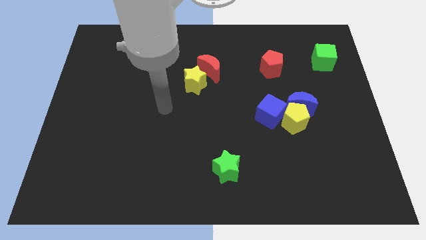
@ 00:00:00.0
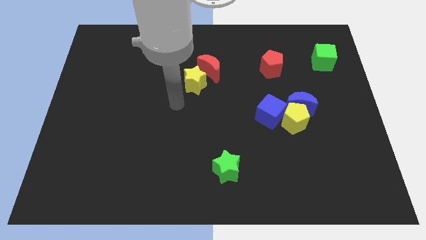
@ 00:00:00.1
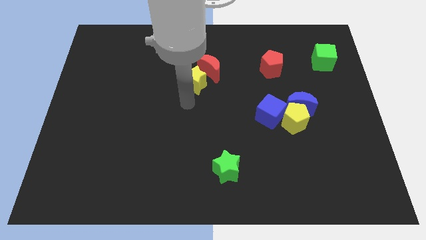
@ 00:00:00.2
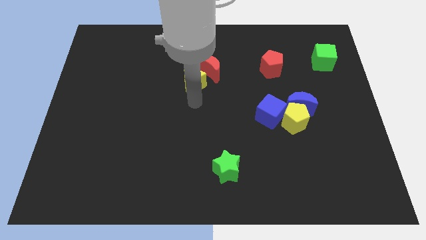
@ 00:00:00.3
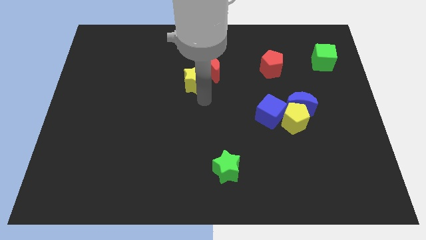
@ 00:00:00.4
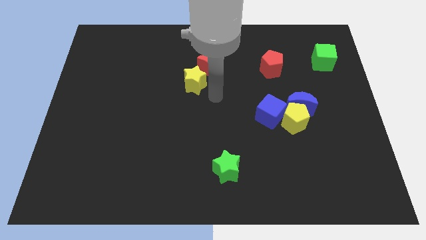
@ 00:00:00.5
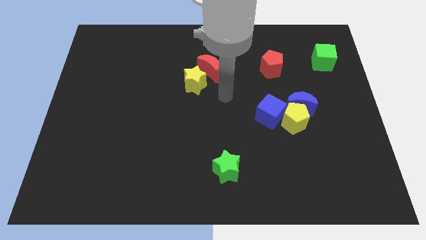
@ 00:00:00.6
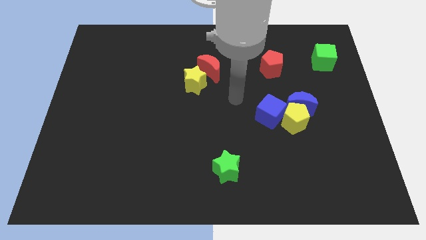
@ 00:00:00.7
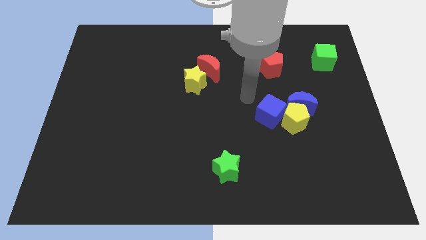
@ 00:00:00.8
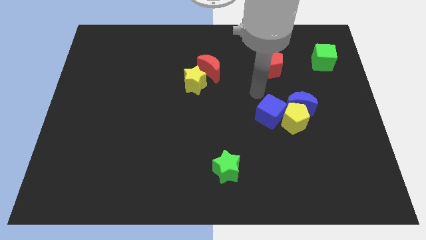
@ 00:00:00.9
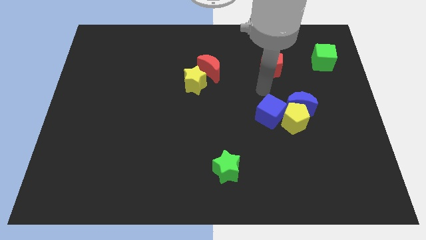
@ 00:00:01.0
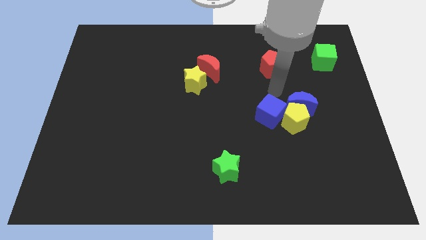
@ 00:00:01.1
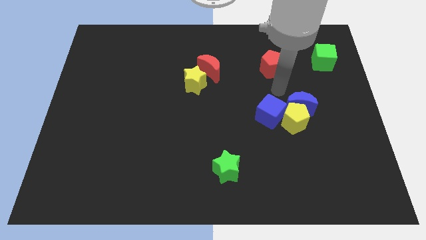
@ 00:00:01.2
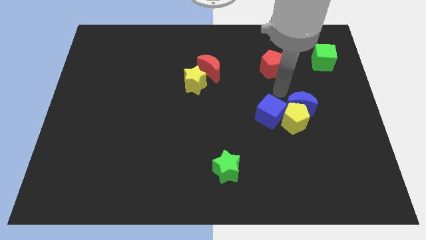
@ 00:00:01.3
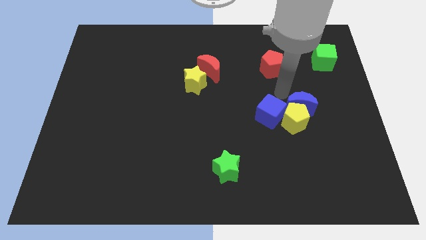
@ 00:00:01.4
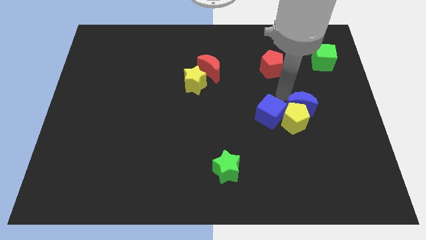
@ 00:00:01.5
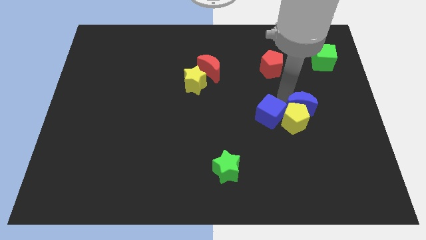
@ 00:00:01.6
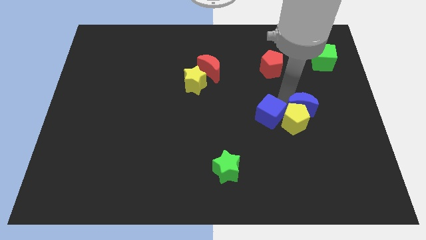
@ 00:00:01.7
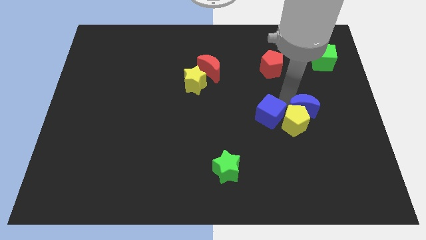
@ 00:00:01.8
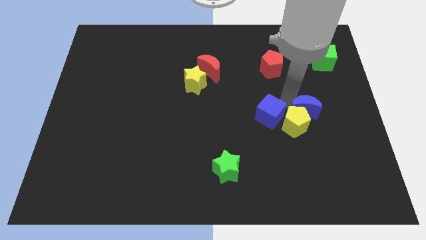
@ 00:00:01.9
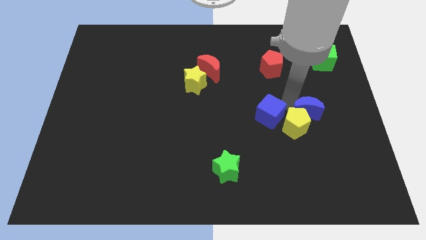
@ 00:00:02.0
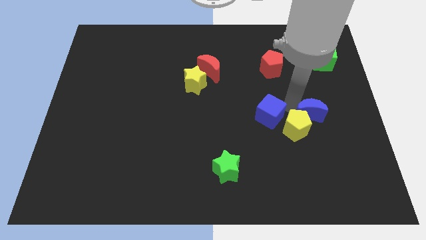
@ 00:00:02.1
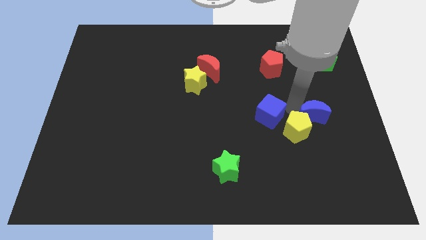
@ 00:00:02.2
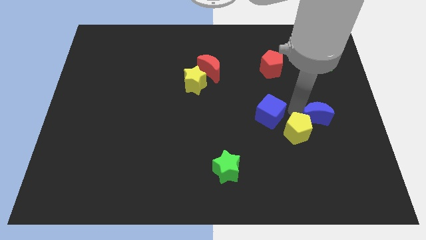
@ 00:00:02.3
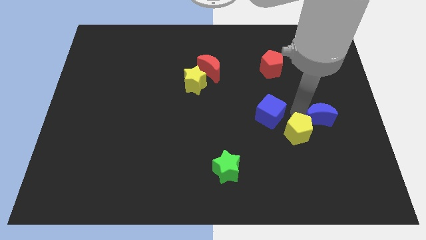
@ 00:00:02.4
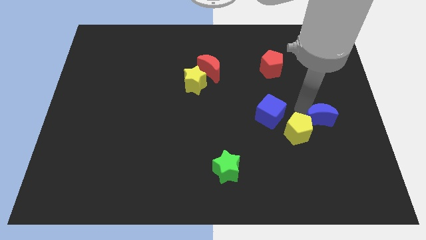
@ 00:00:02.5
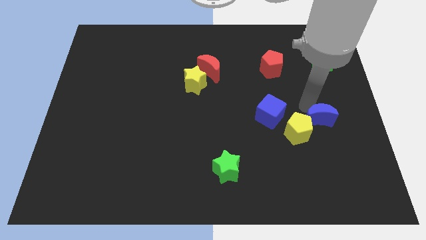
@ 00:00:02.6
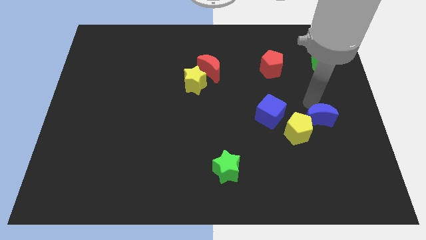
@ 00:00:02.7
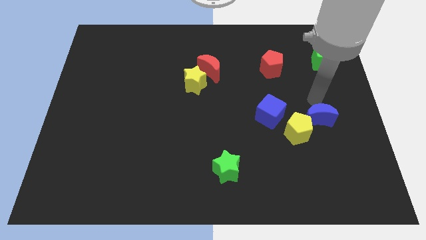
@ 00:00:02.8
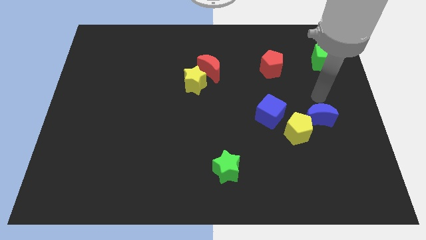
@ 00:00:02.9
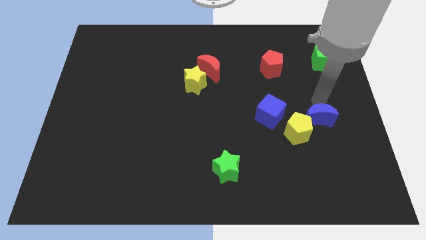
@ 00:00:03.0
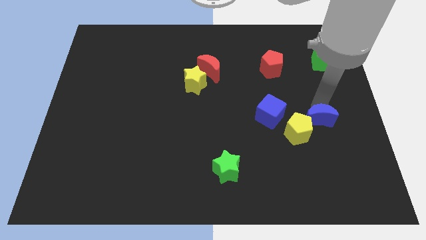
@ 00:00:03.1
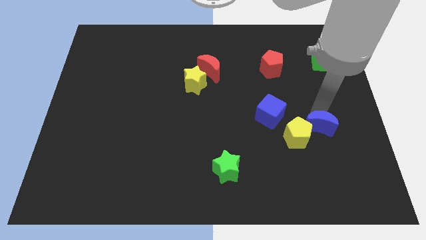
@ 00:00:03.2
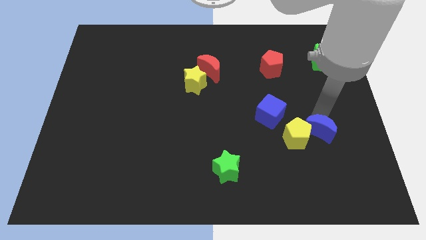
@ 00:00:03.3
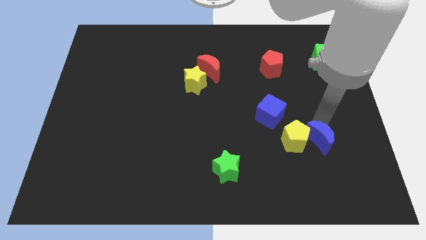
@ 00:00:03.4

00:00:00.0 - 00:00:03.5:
slightly slide the blue moon down

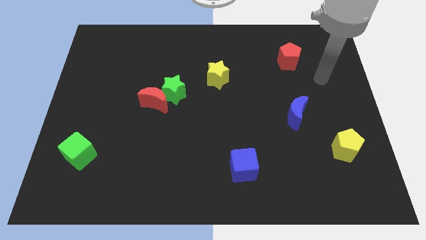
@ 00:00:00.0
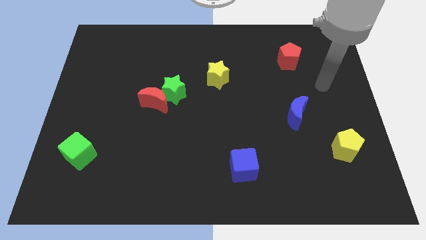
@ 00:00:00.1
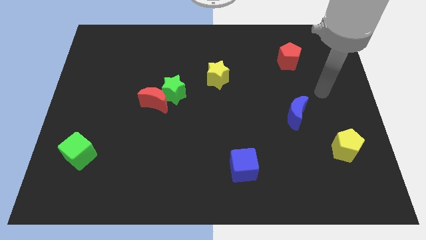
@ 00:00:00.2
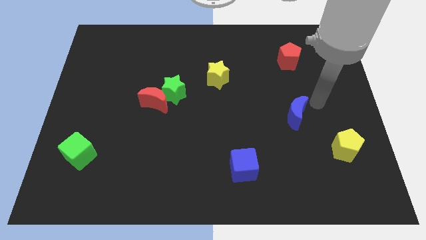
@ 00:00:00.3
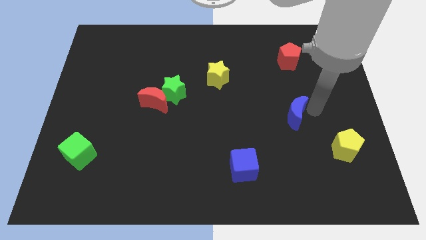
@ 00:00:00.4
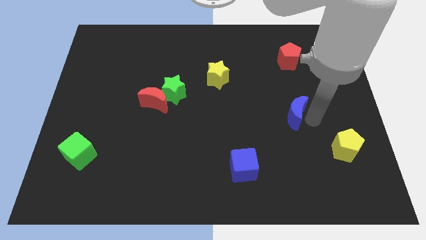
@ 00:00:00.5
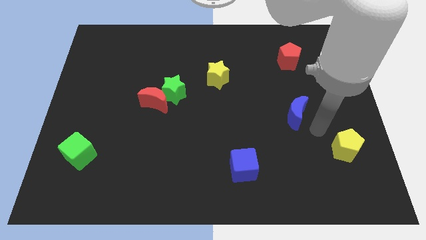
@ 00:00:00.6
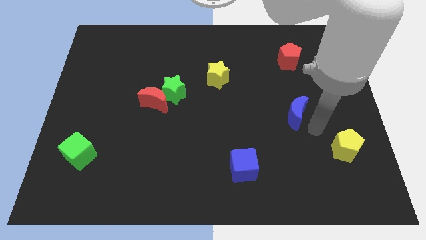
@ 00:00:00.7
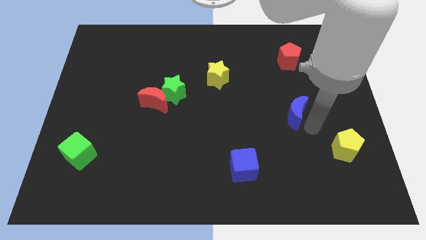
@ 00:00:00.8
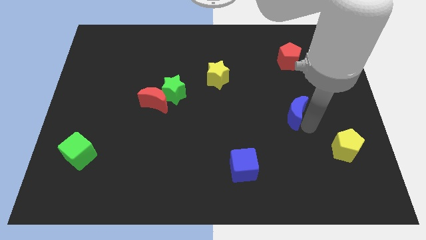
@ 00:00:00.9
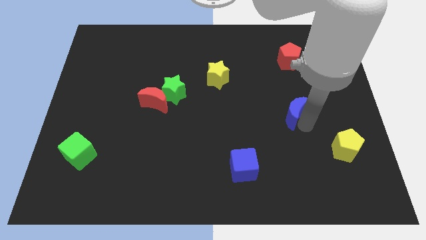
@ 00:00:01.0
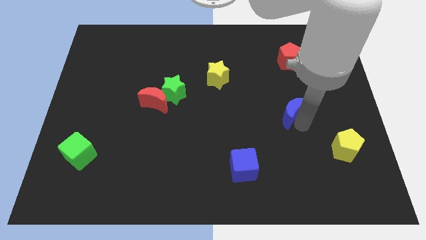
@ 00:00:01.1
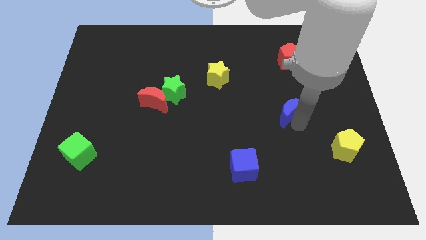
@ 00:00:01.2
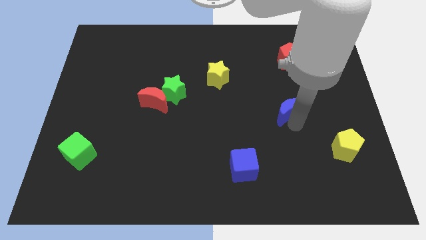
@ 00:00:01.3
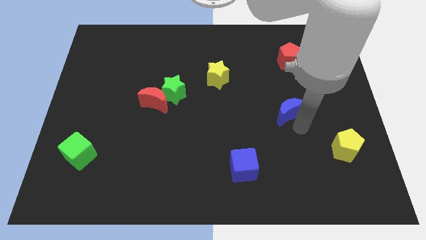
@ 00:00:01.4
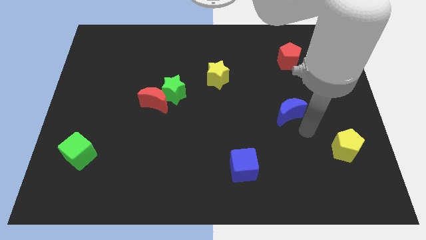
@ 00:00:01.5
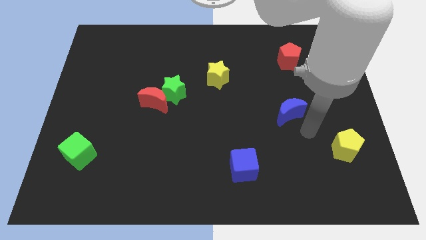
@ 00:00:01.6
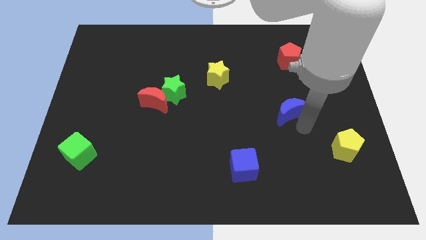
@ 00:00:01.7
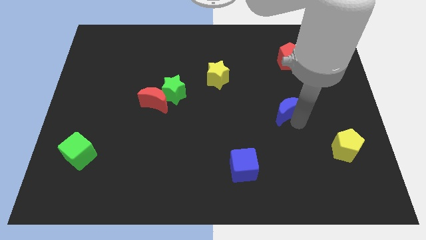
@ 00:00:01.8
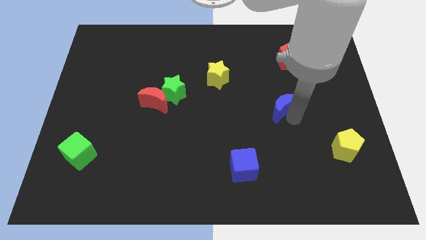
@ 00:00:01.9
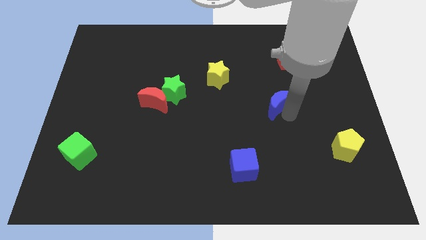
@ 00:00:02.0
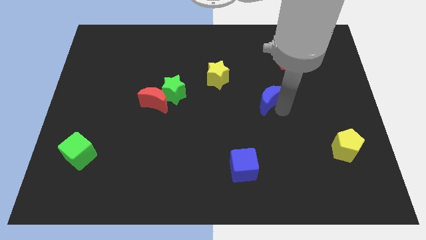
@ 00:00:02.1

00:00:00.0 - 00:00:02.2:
push the blue moon up and left diagonally slightly

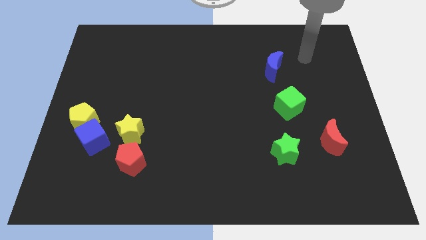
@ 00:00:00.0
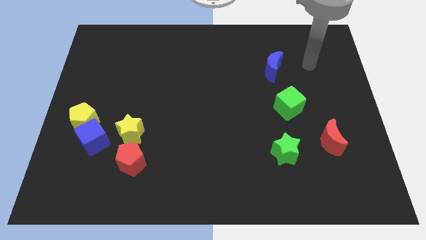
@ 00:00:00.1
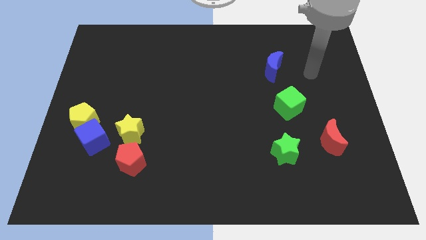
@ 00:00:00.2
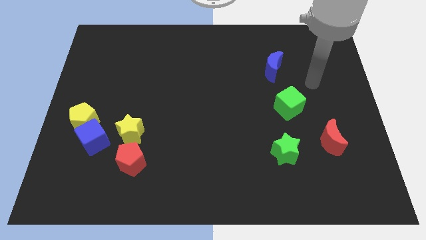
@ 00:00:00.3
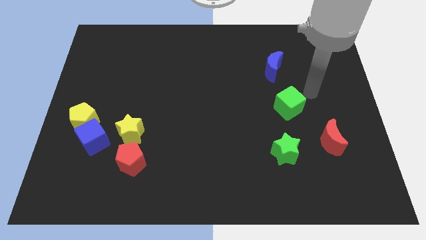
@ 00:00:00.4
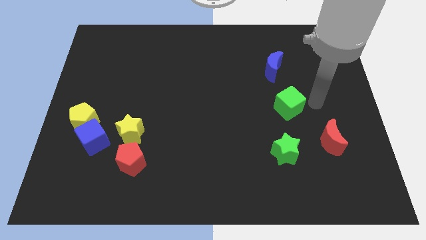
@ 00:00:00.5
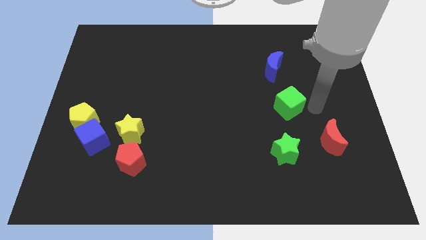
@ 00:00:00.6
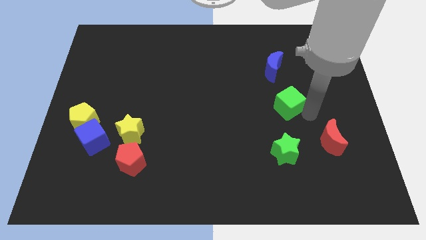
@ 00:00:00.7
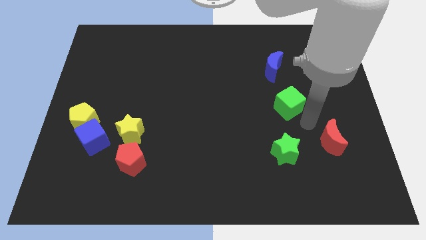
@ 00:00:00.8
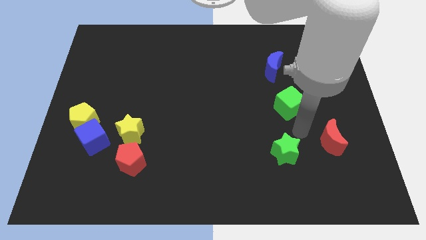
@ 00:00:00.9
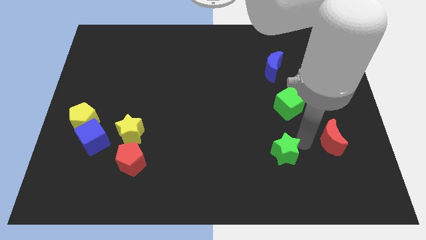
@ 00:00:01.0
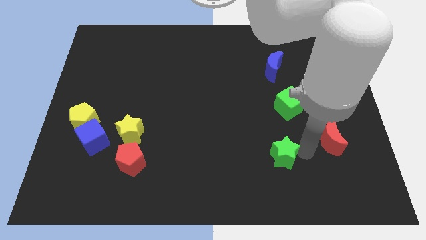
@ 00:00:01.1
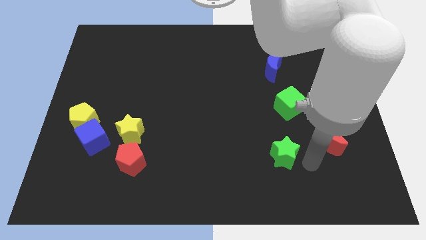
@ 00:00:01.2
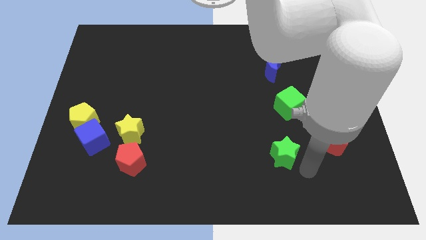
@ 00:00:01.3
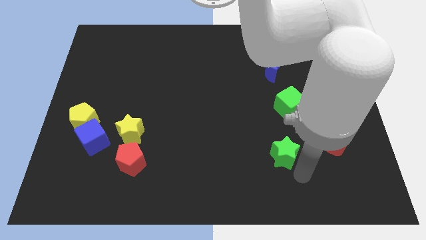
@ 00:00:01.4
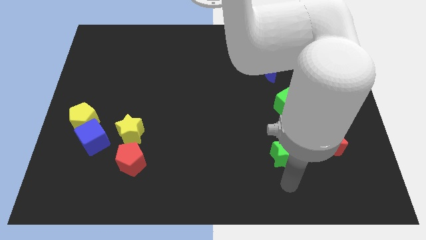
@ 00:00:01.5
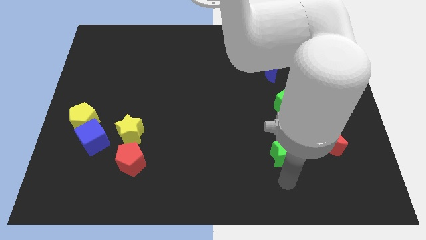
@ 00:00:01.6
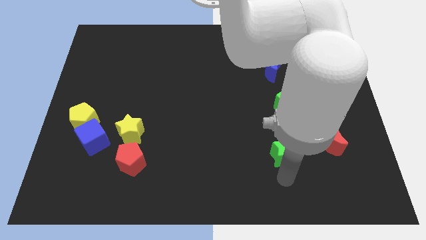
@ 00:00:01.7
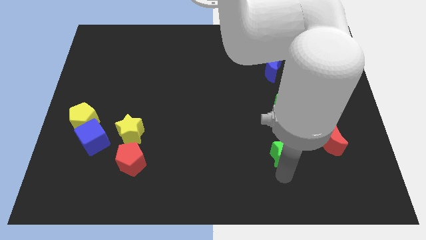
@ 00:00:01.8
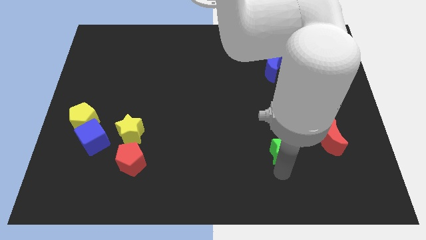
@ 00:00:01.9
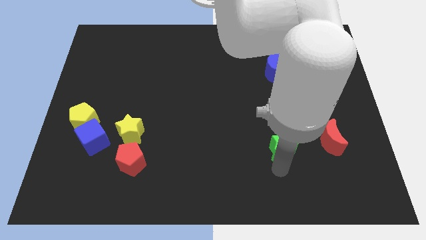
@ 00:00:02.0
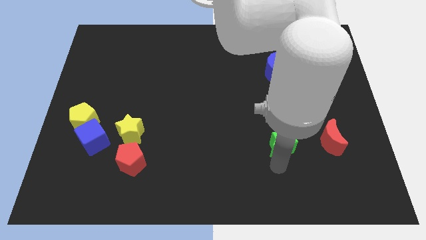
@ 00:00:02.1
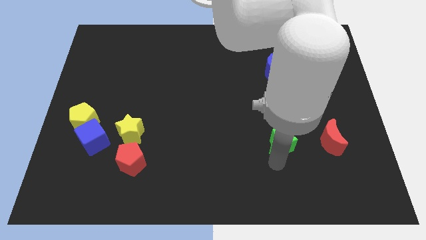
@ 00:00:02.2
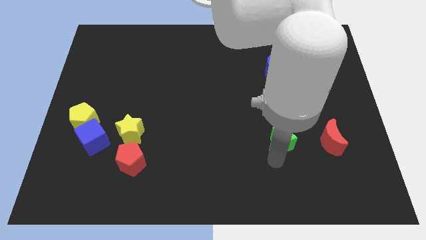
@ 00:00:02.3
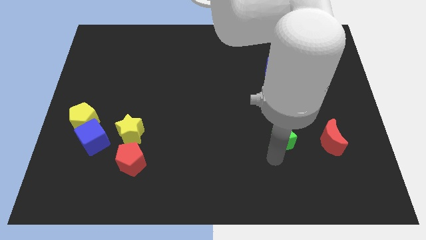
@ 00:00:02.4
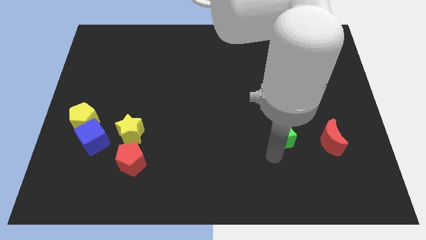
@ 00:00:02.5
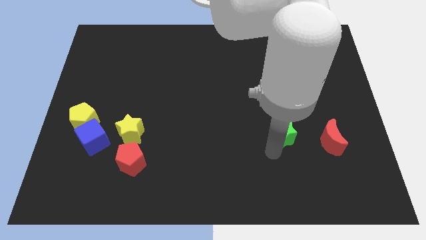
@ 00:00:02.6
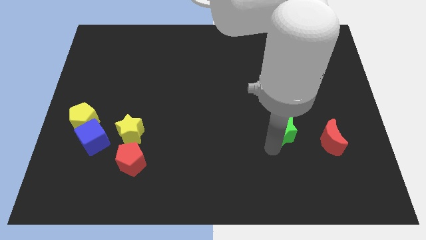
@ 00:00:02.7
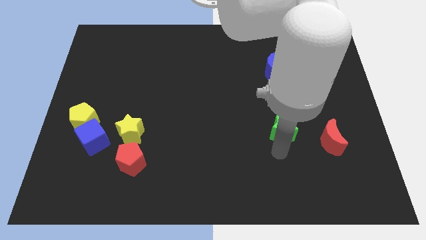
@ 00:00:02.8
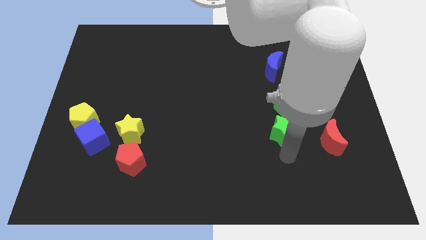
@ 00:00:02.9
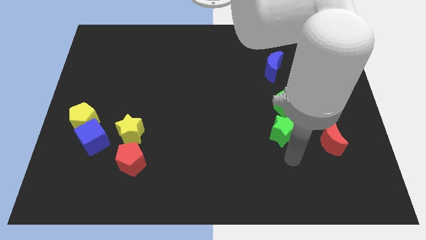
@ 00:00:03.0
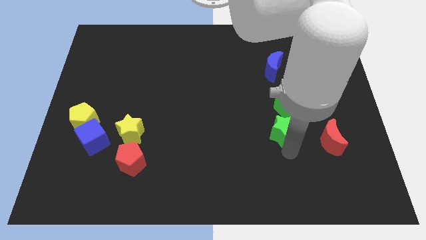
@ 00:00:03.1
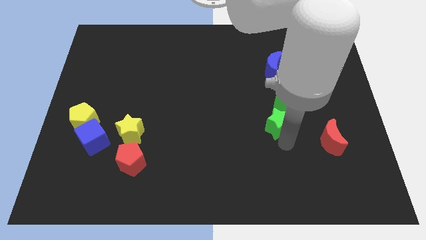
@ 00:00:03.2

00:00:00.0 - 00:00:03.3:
push the green star a bit up
